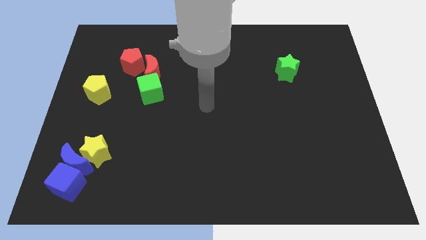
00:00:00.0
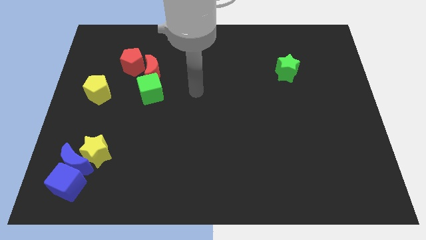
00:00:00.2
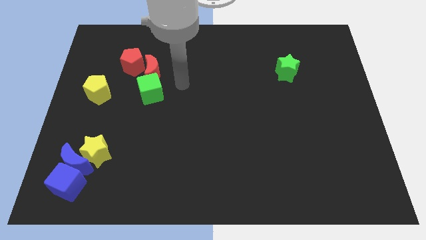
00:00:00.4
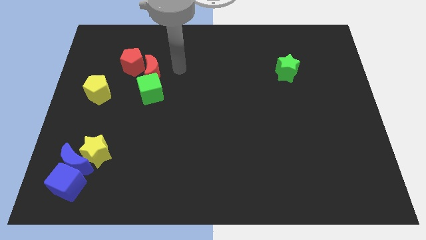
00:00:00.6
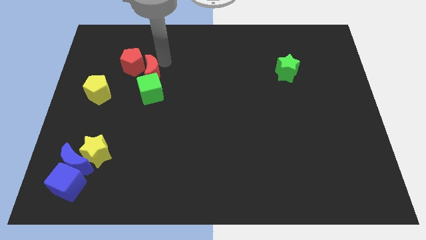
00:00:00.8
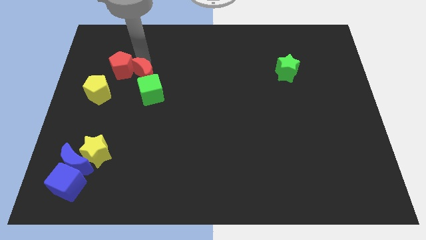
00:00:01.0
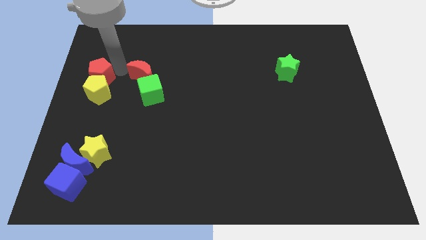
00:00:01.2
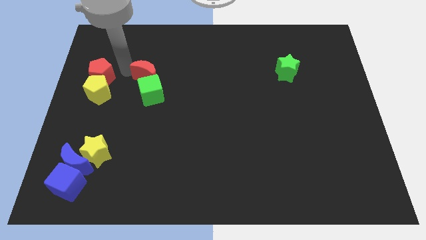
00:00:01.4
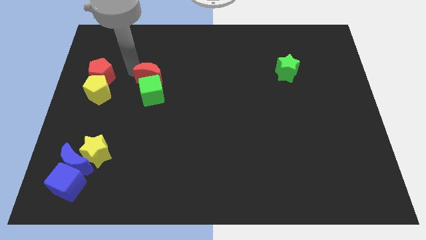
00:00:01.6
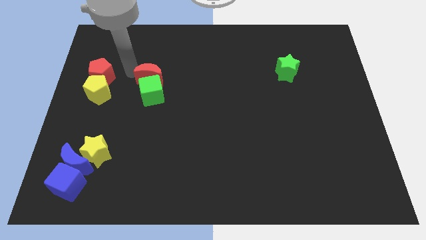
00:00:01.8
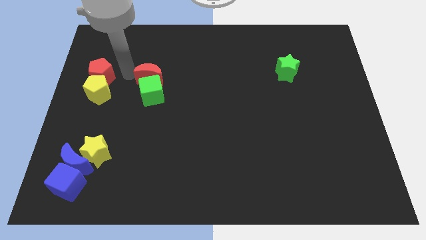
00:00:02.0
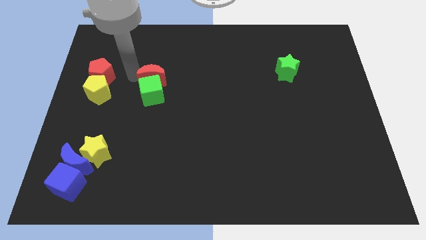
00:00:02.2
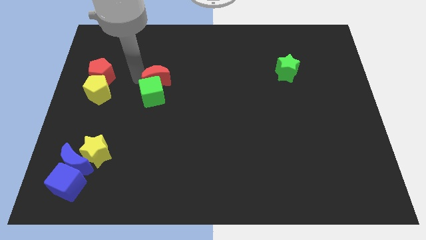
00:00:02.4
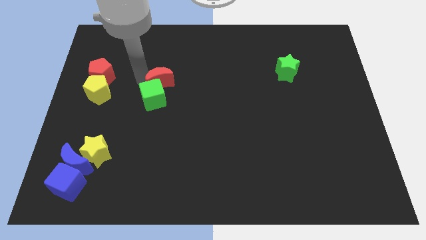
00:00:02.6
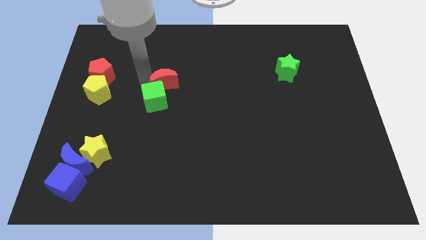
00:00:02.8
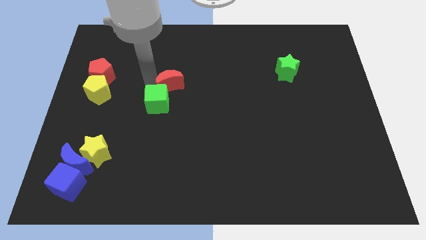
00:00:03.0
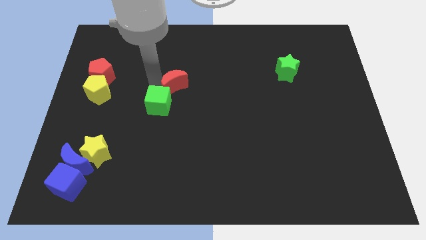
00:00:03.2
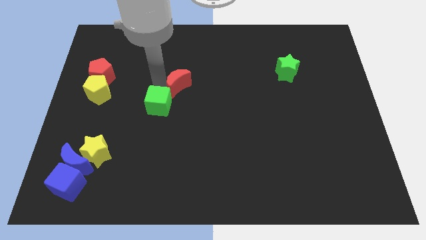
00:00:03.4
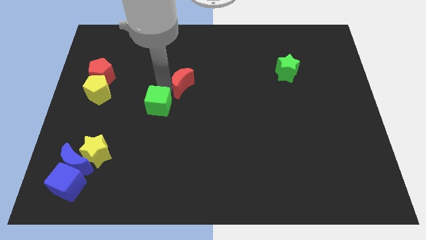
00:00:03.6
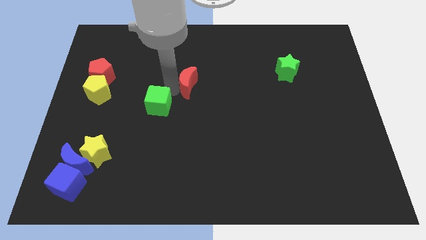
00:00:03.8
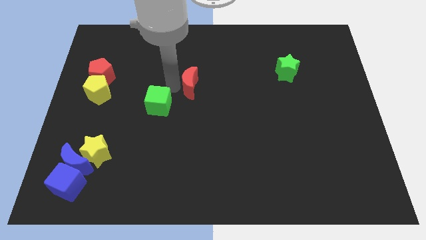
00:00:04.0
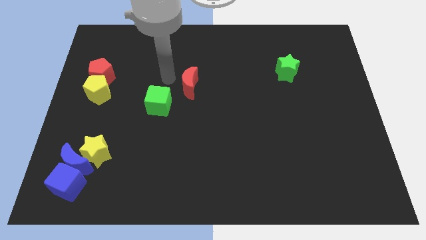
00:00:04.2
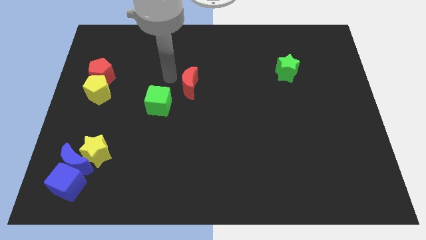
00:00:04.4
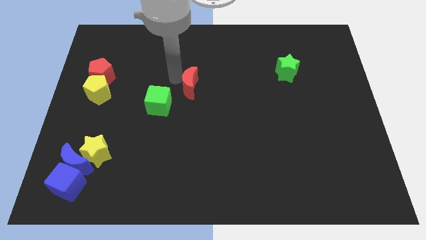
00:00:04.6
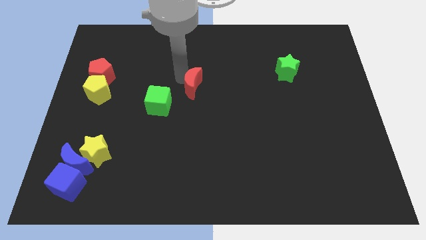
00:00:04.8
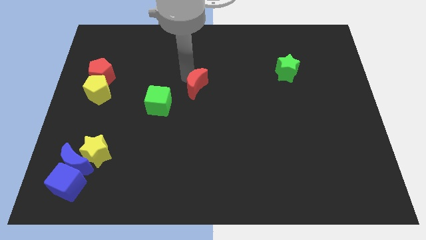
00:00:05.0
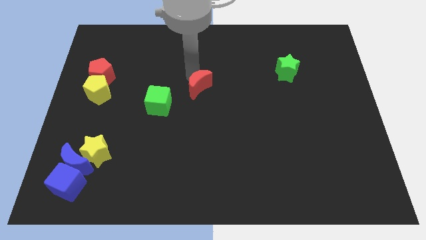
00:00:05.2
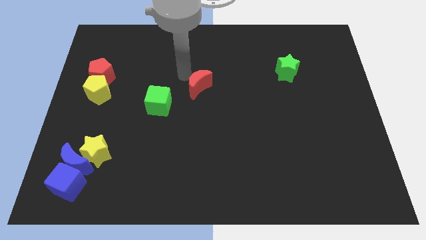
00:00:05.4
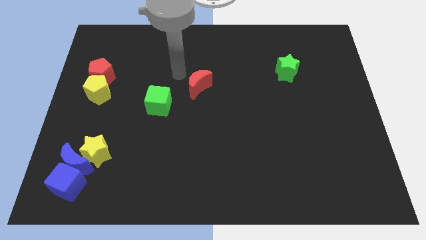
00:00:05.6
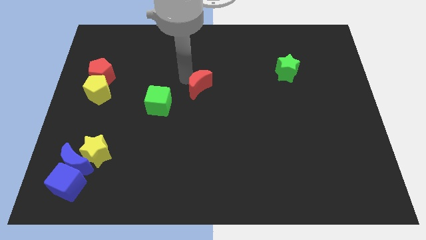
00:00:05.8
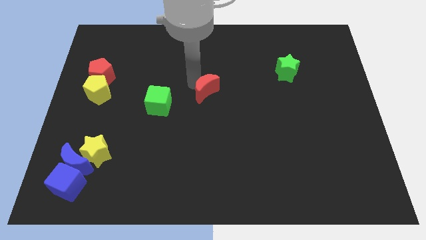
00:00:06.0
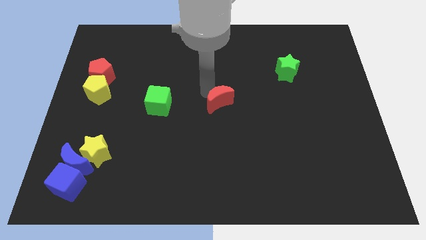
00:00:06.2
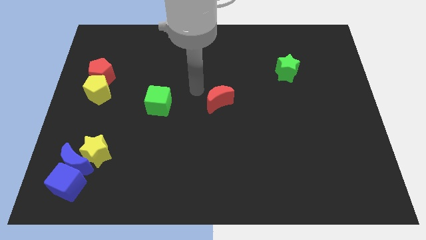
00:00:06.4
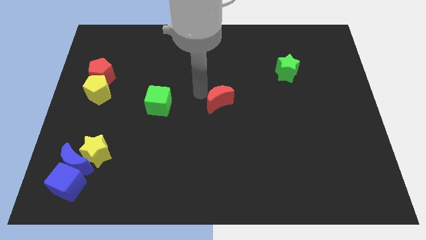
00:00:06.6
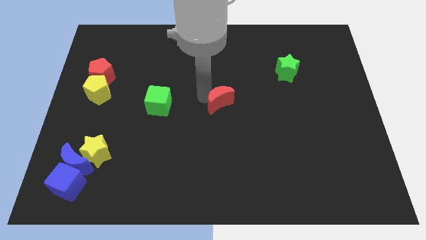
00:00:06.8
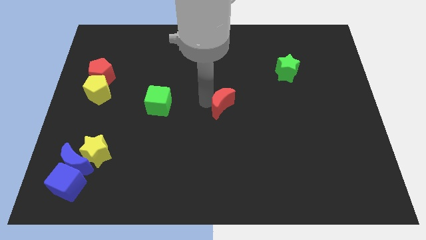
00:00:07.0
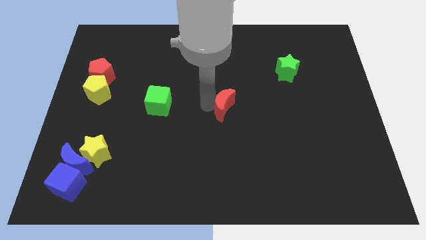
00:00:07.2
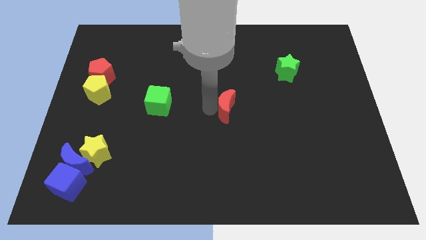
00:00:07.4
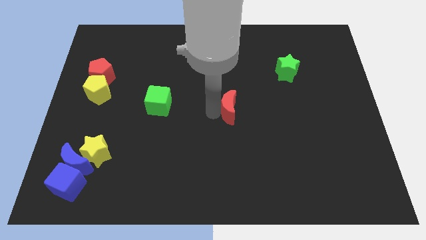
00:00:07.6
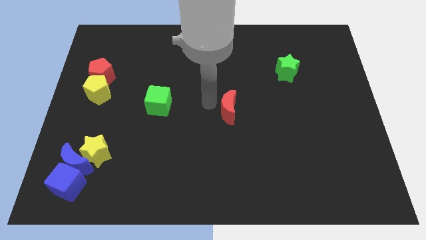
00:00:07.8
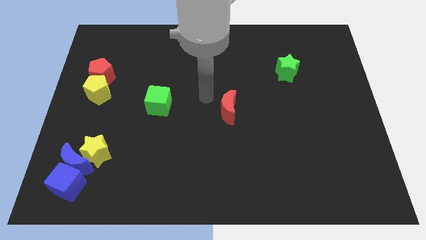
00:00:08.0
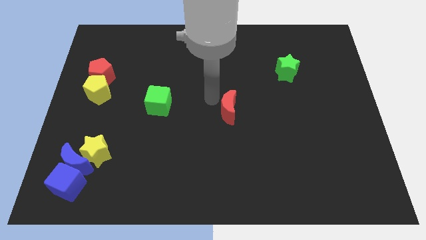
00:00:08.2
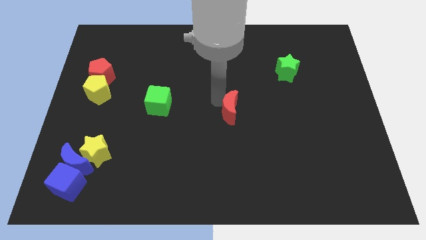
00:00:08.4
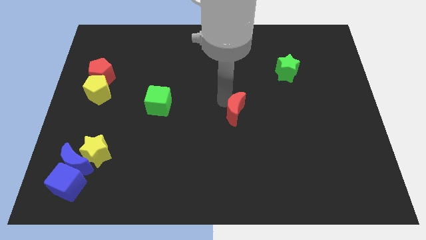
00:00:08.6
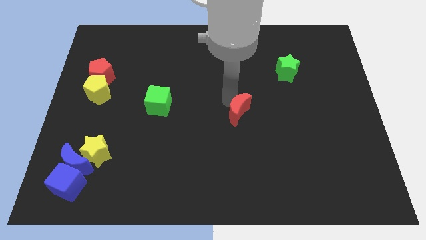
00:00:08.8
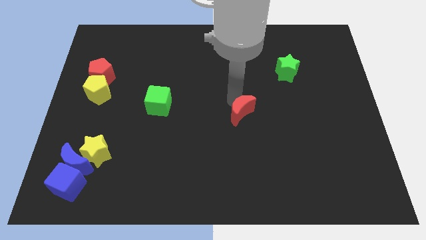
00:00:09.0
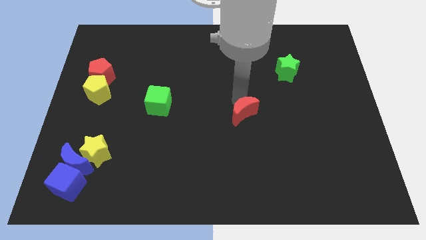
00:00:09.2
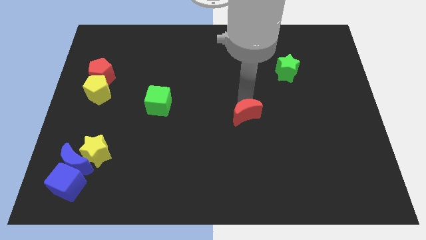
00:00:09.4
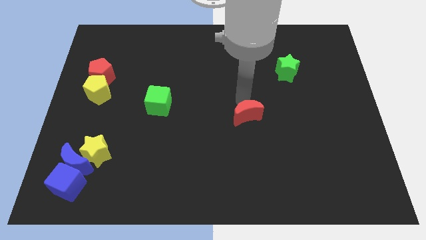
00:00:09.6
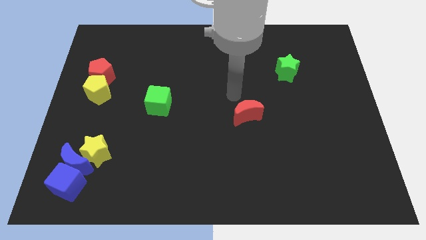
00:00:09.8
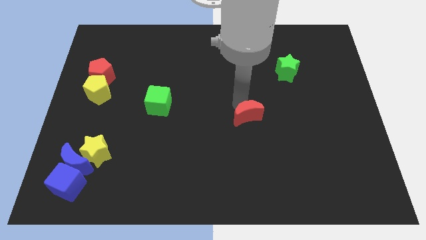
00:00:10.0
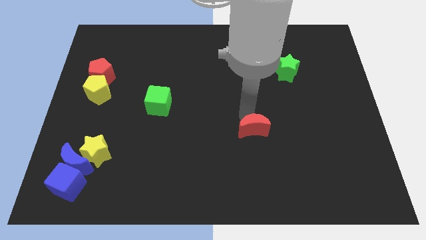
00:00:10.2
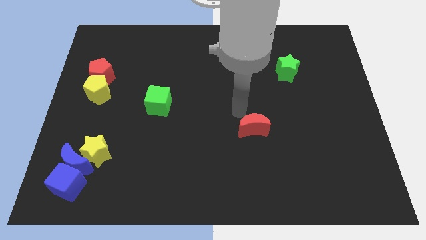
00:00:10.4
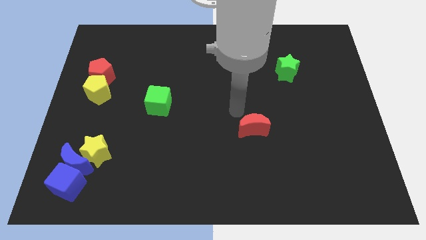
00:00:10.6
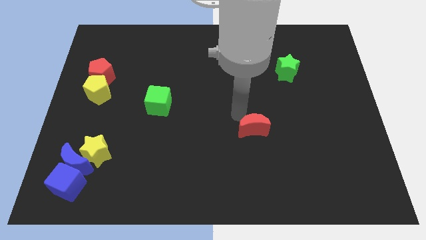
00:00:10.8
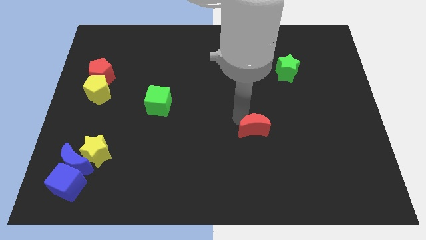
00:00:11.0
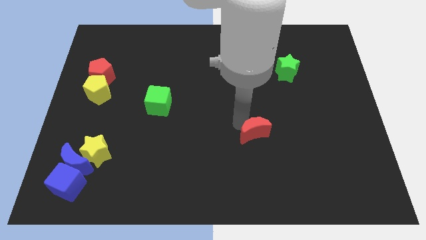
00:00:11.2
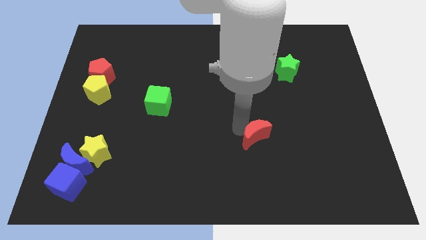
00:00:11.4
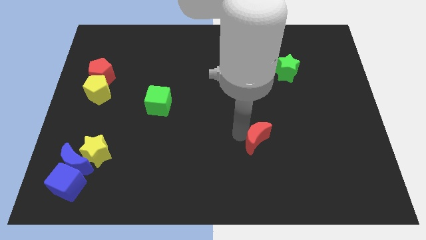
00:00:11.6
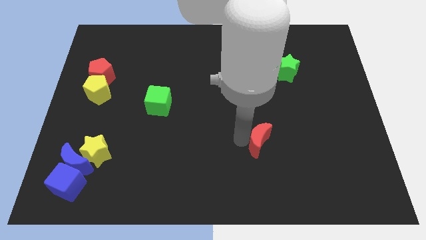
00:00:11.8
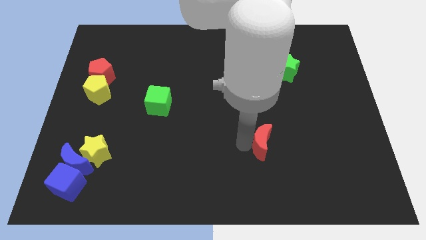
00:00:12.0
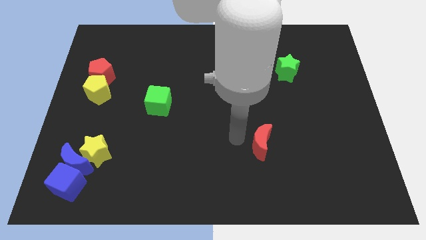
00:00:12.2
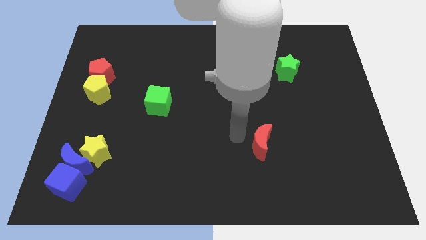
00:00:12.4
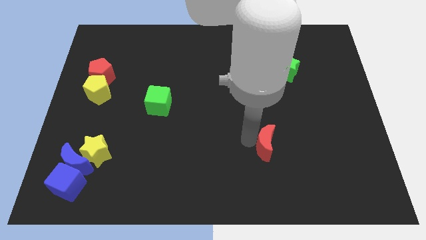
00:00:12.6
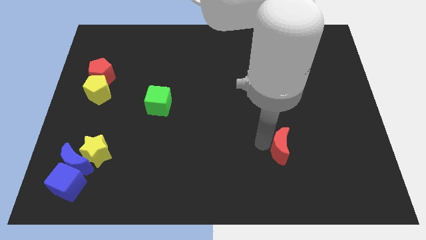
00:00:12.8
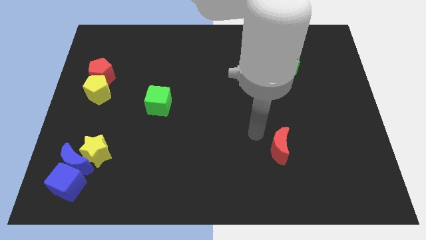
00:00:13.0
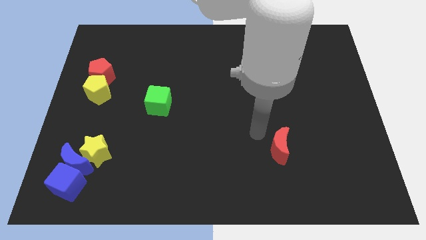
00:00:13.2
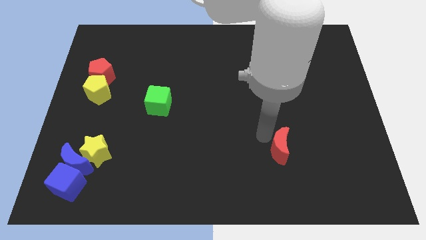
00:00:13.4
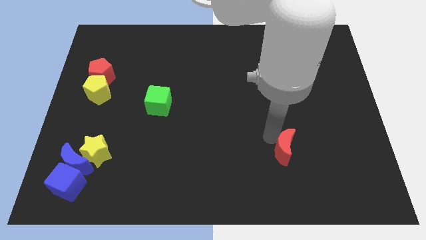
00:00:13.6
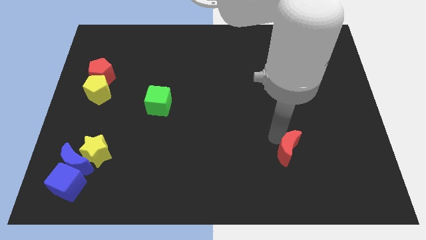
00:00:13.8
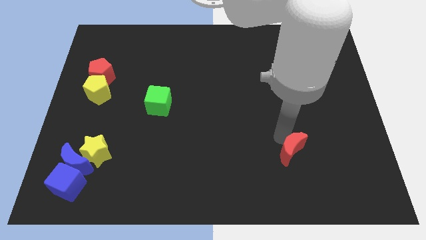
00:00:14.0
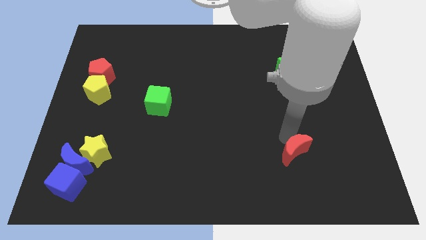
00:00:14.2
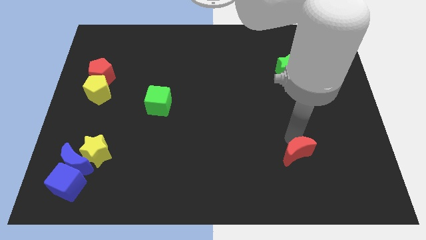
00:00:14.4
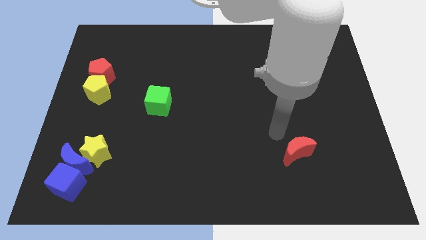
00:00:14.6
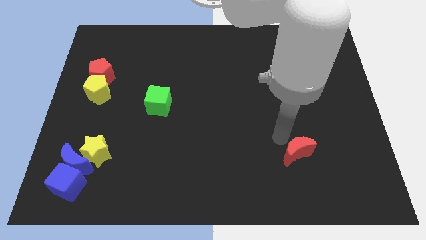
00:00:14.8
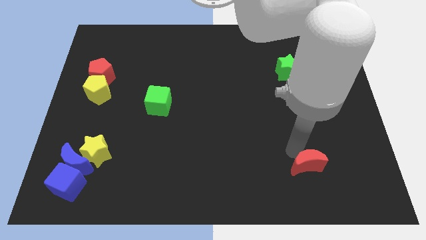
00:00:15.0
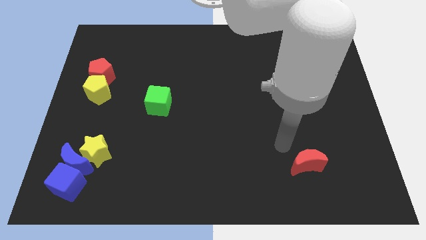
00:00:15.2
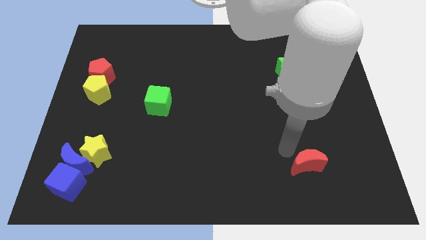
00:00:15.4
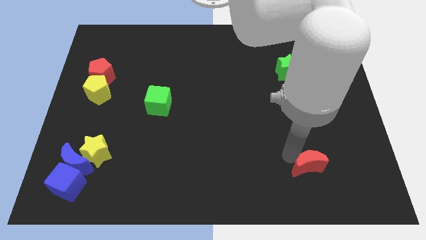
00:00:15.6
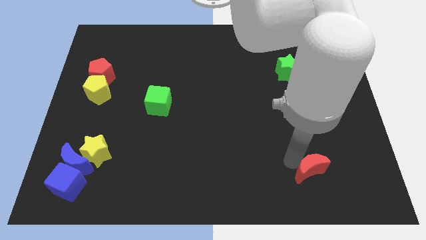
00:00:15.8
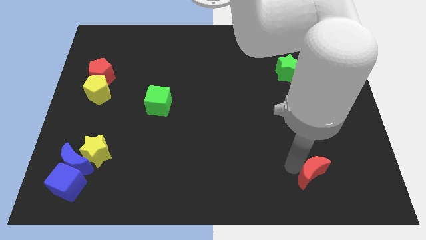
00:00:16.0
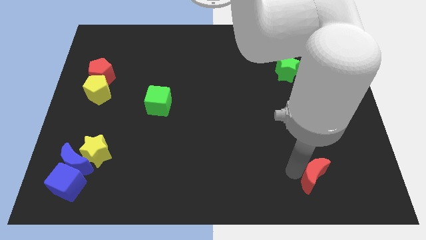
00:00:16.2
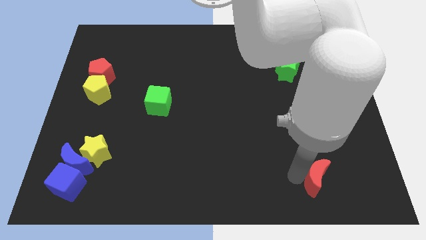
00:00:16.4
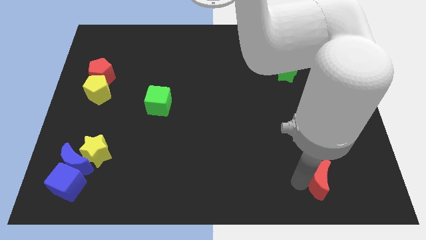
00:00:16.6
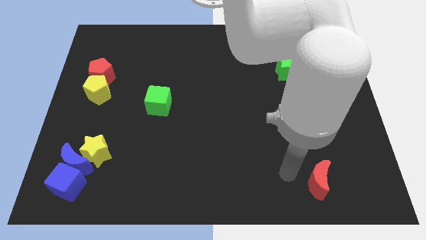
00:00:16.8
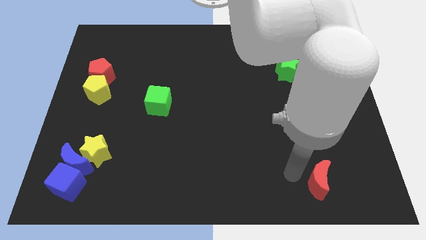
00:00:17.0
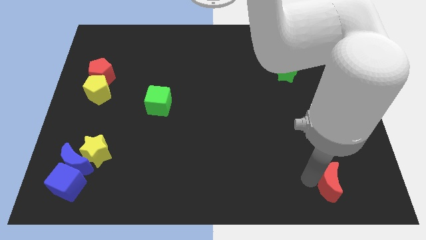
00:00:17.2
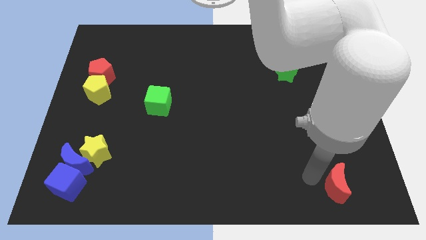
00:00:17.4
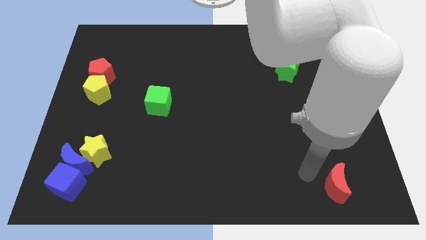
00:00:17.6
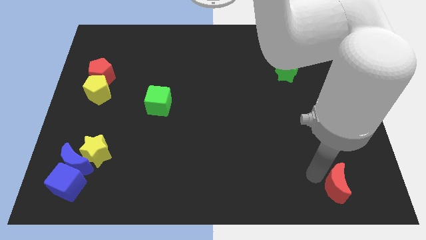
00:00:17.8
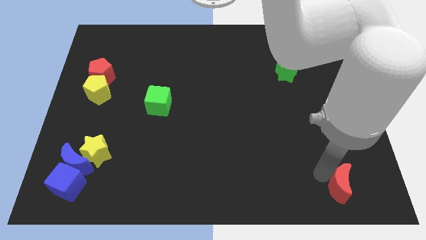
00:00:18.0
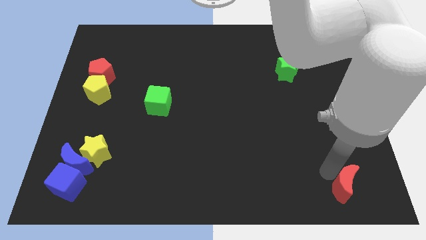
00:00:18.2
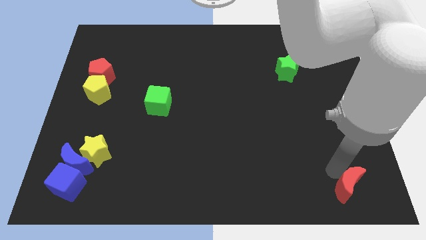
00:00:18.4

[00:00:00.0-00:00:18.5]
move the red moon to the lower right corner
